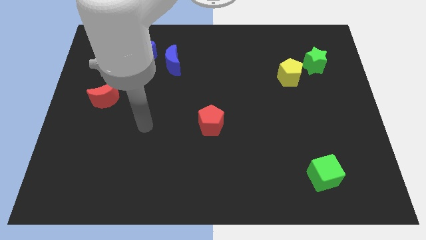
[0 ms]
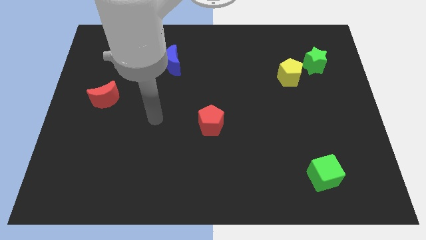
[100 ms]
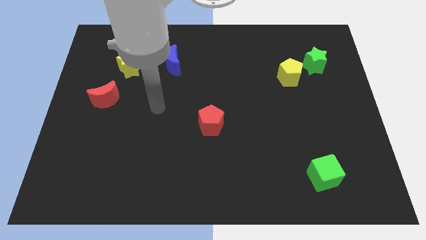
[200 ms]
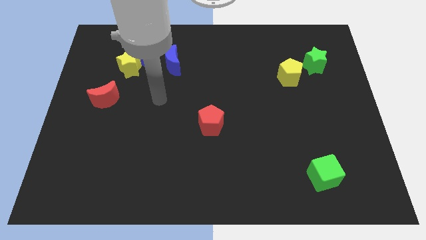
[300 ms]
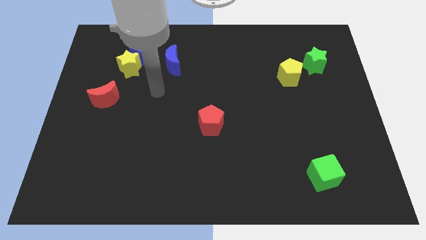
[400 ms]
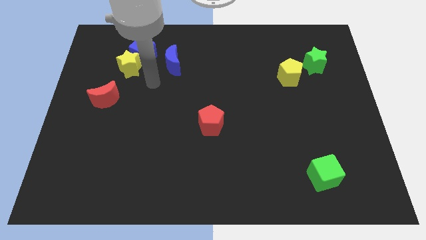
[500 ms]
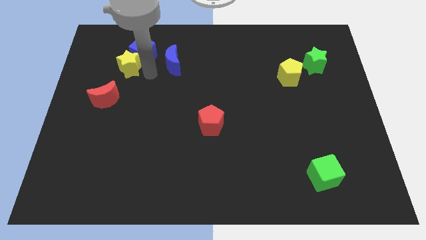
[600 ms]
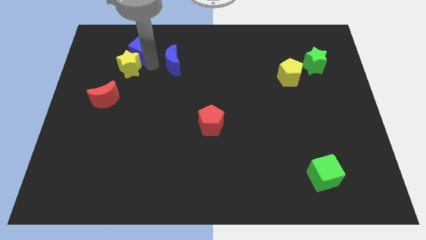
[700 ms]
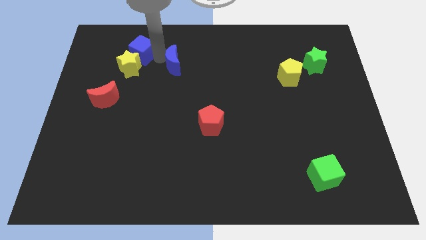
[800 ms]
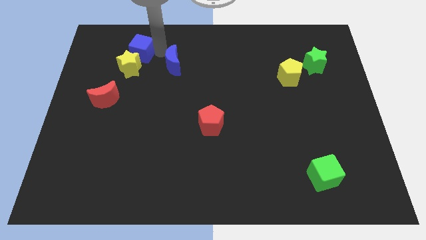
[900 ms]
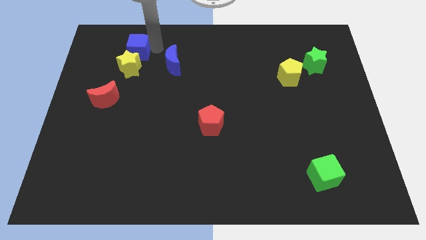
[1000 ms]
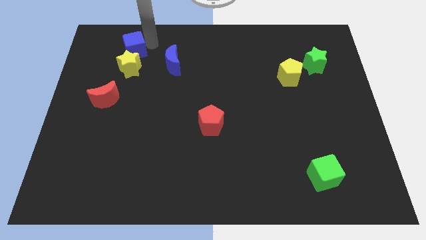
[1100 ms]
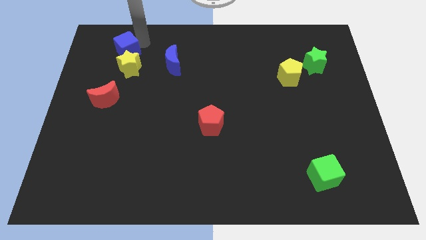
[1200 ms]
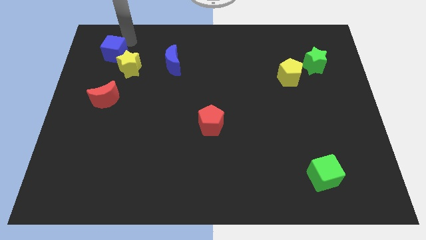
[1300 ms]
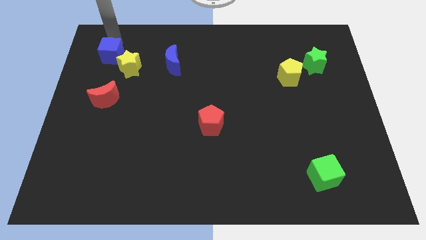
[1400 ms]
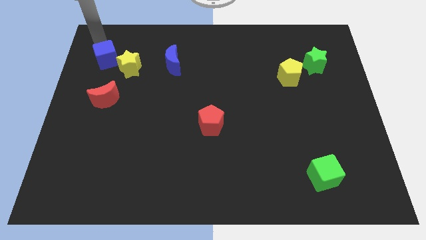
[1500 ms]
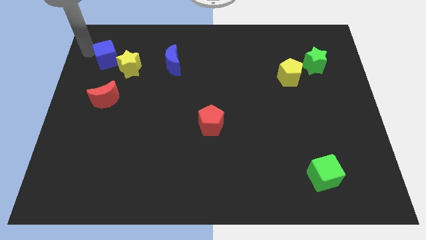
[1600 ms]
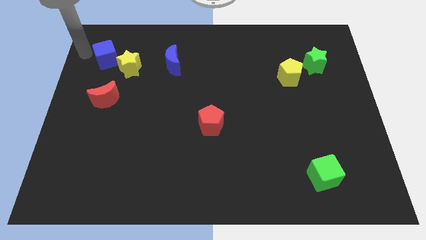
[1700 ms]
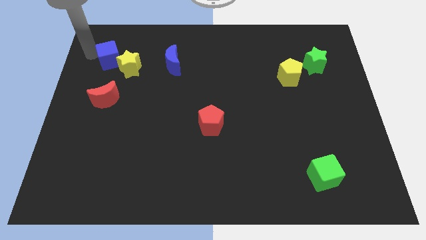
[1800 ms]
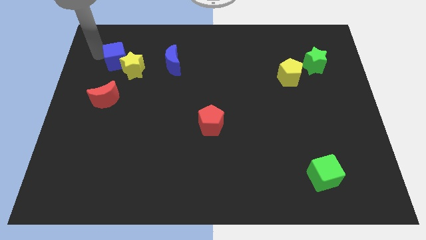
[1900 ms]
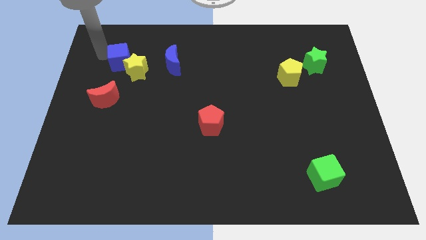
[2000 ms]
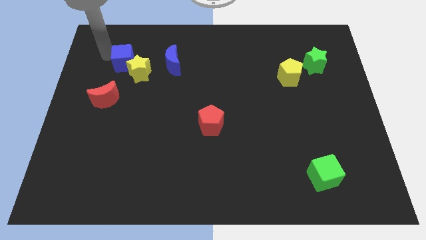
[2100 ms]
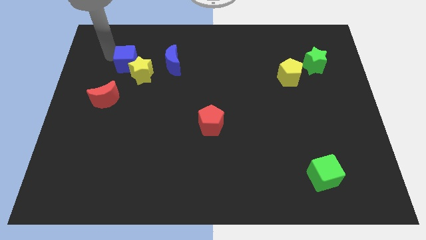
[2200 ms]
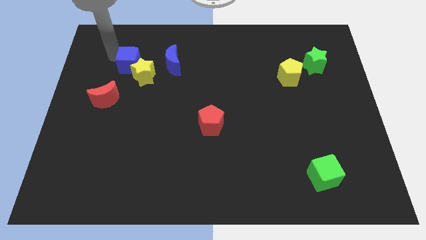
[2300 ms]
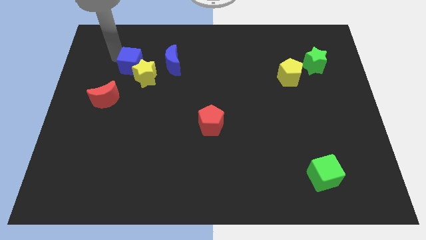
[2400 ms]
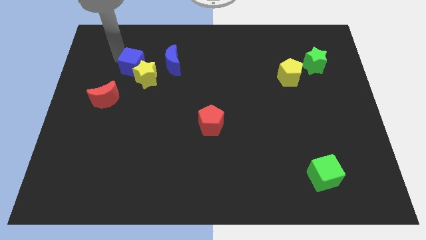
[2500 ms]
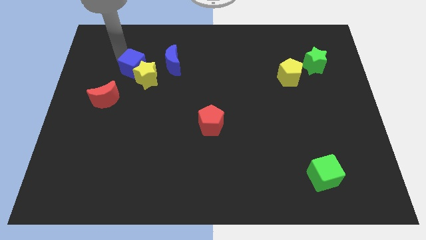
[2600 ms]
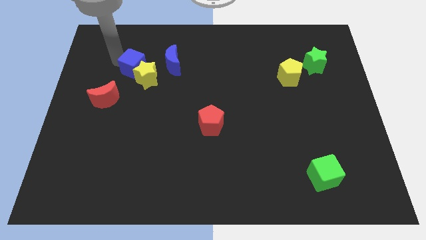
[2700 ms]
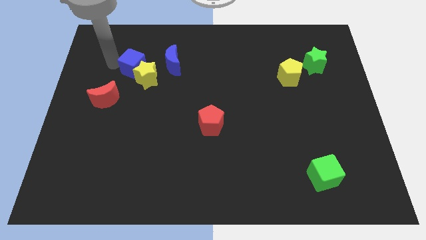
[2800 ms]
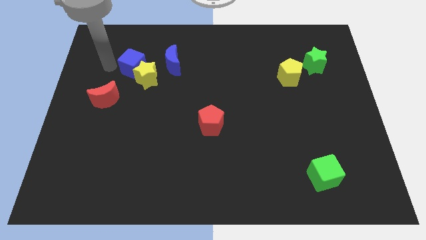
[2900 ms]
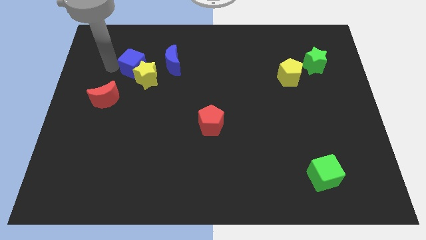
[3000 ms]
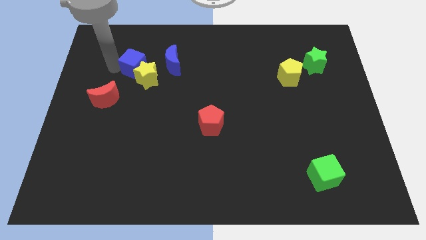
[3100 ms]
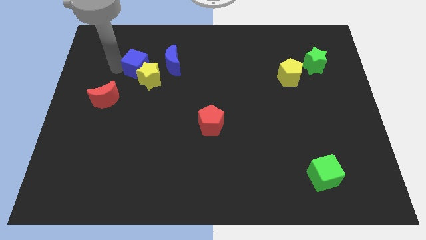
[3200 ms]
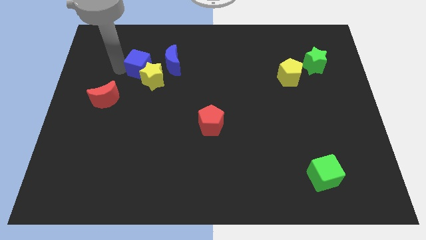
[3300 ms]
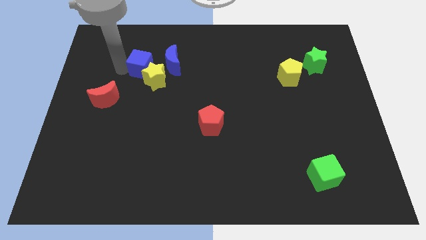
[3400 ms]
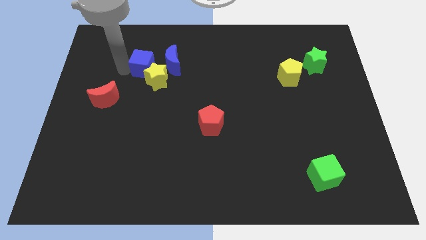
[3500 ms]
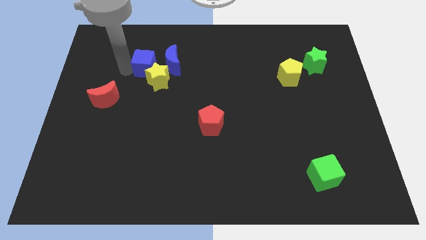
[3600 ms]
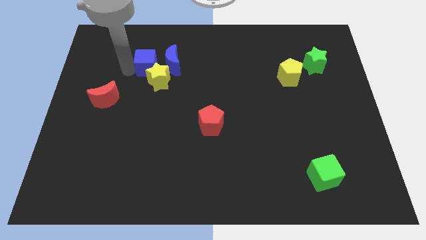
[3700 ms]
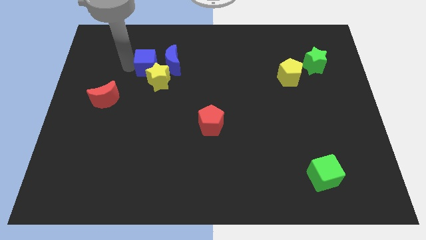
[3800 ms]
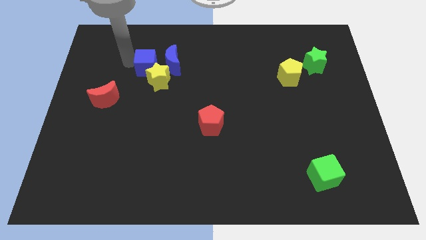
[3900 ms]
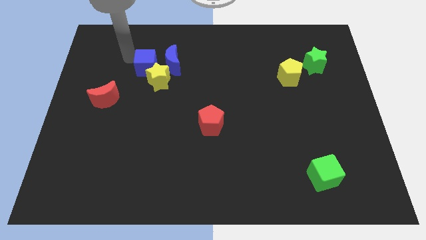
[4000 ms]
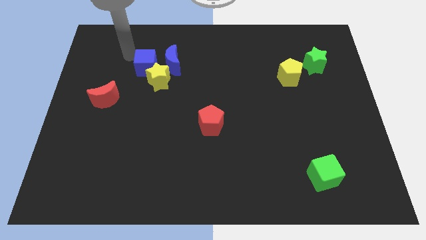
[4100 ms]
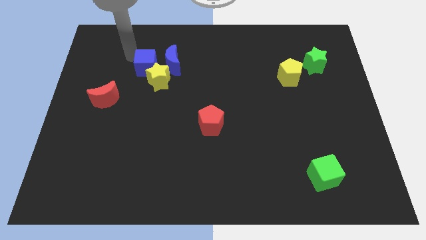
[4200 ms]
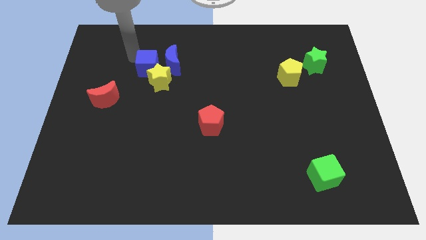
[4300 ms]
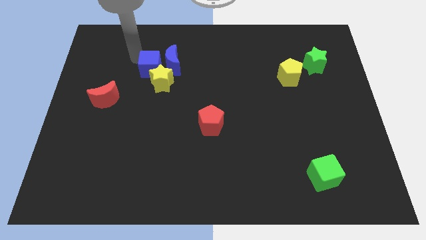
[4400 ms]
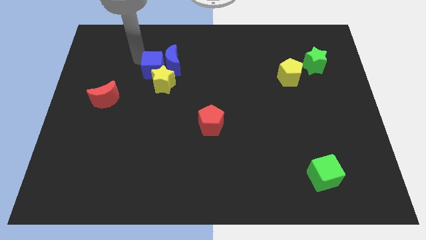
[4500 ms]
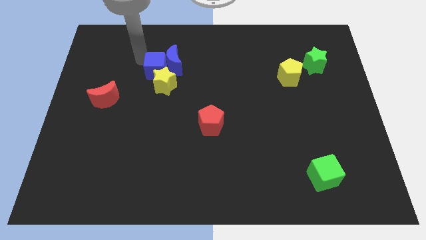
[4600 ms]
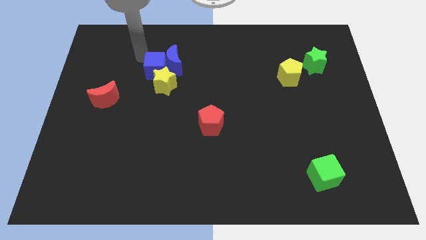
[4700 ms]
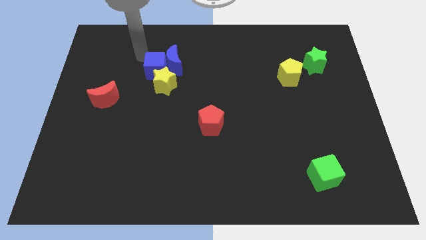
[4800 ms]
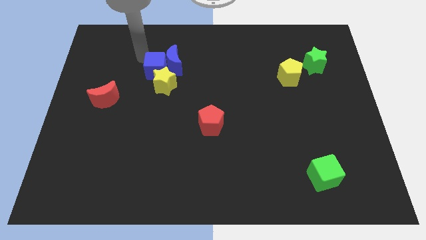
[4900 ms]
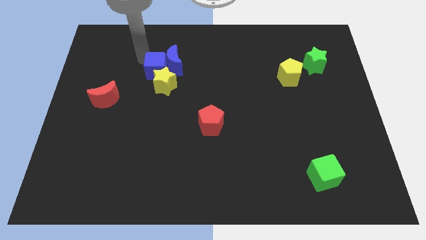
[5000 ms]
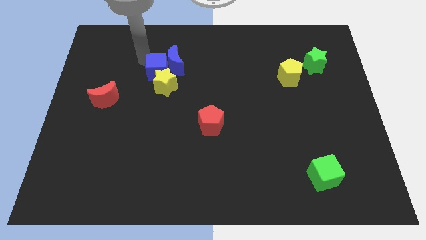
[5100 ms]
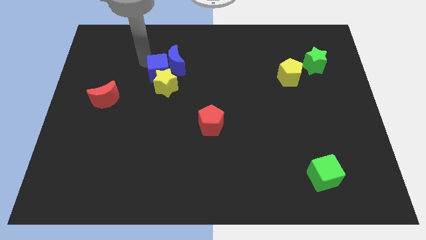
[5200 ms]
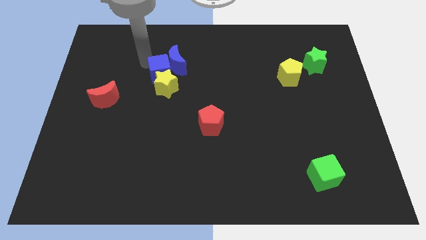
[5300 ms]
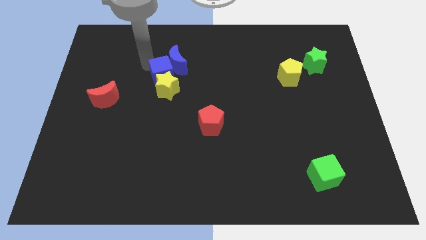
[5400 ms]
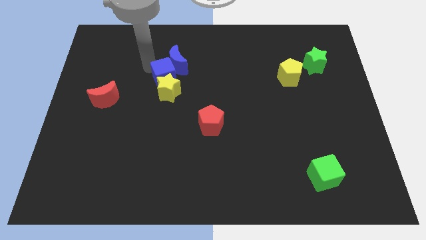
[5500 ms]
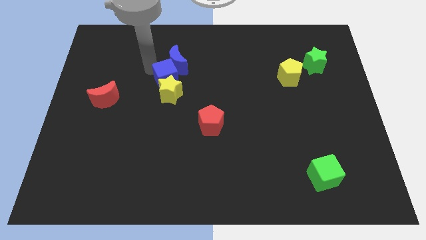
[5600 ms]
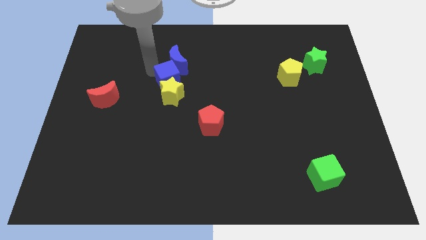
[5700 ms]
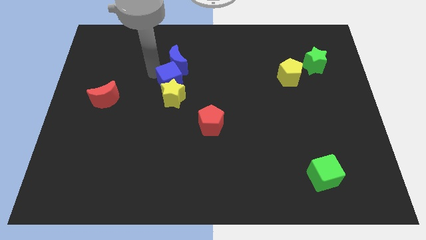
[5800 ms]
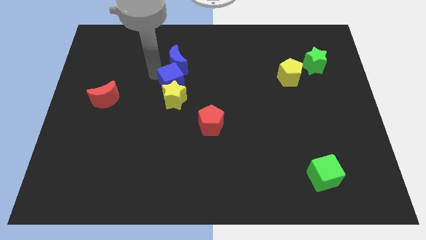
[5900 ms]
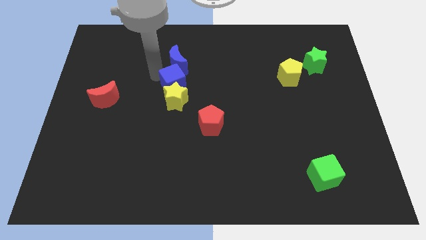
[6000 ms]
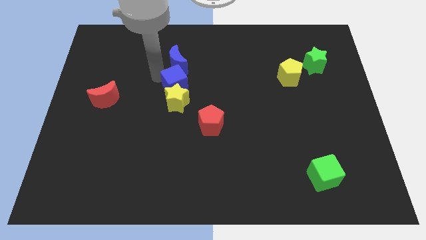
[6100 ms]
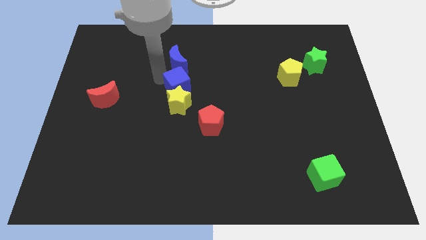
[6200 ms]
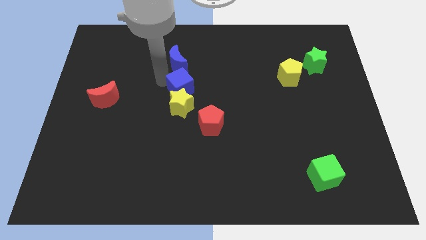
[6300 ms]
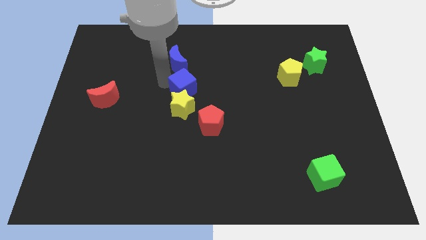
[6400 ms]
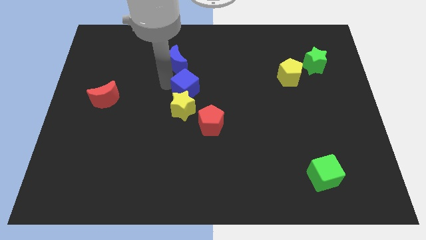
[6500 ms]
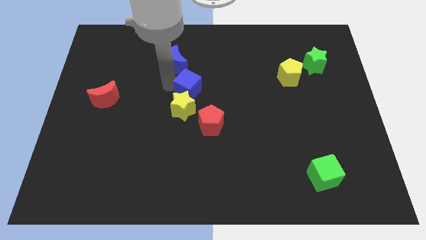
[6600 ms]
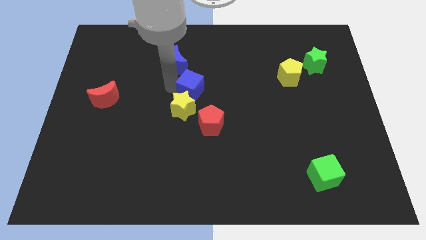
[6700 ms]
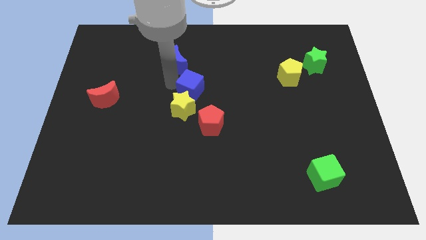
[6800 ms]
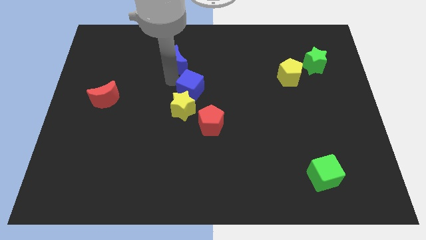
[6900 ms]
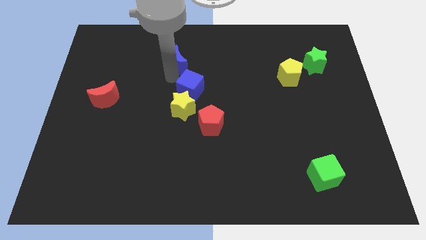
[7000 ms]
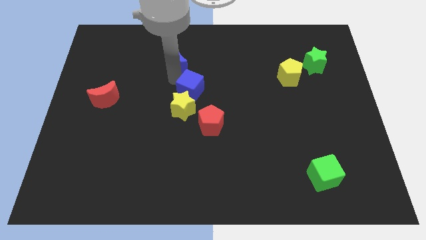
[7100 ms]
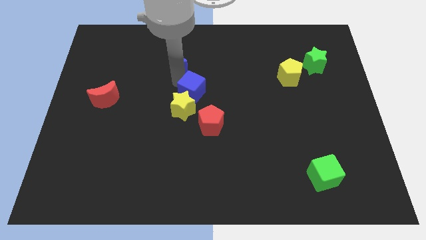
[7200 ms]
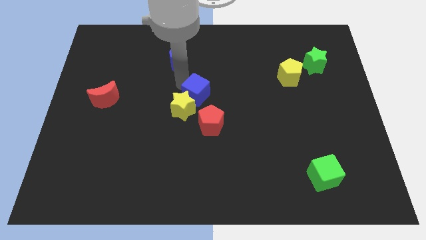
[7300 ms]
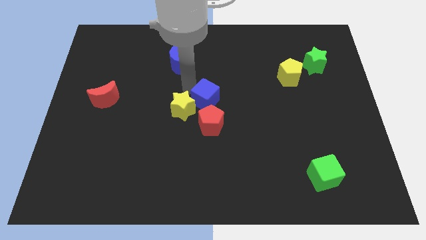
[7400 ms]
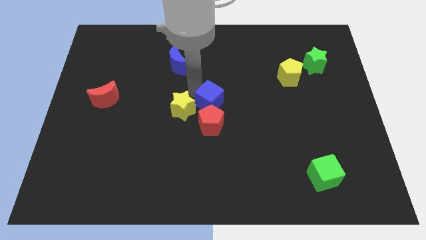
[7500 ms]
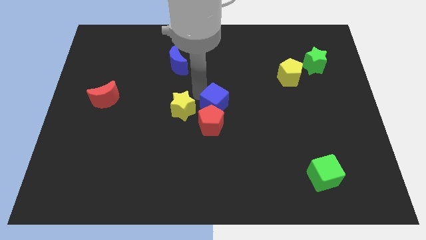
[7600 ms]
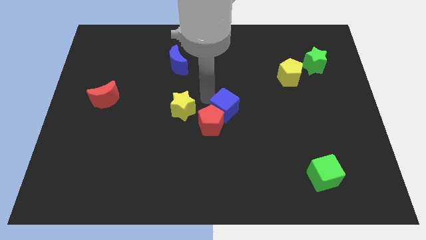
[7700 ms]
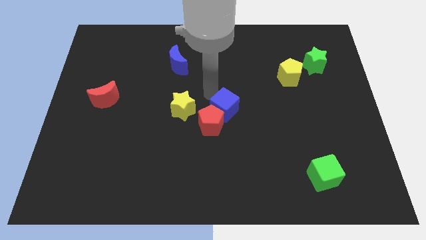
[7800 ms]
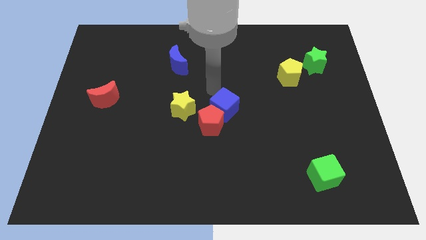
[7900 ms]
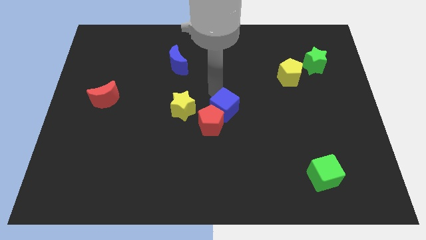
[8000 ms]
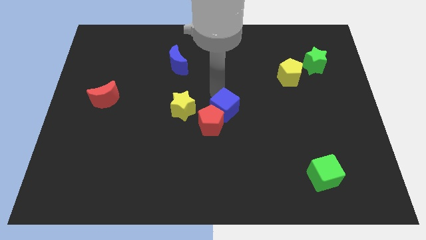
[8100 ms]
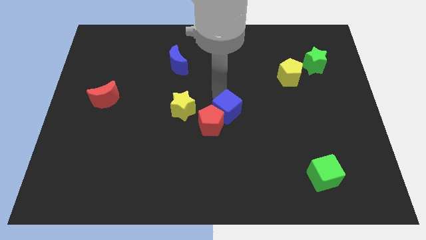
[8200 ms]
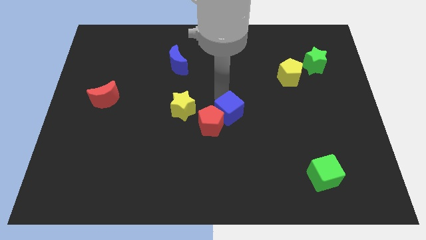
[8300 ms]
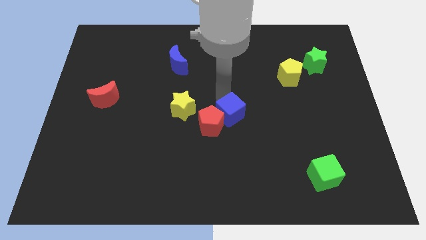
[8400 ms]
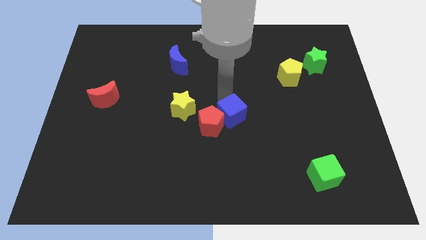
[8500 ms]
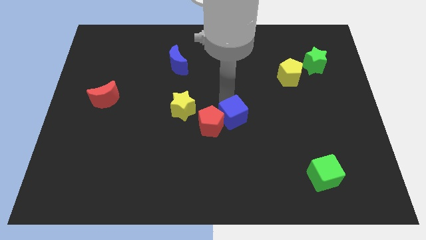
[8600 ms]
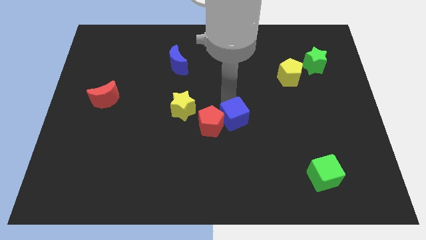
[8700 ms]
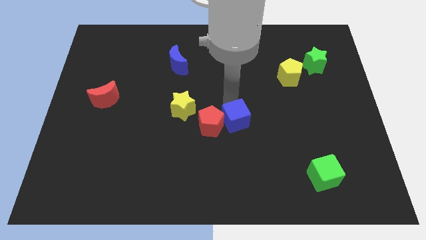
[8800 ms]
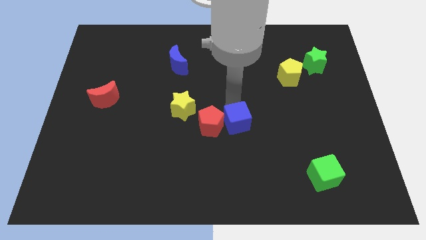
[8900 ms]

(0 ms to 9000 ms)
slide the blue cube to the bottom right of the red pentagon
